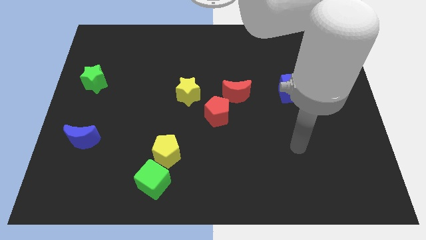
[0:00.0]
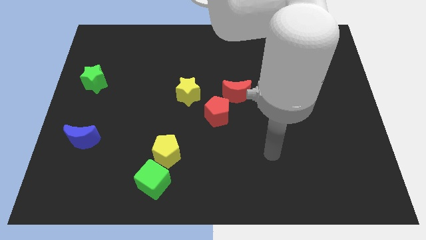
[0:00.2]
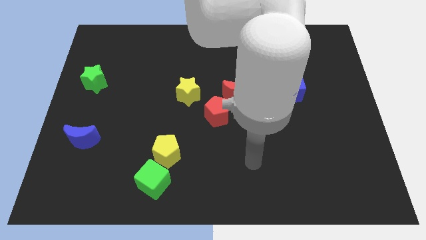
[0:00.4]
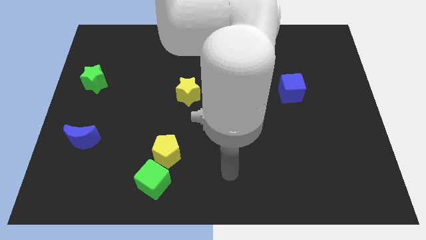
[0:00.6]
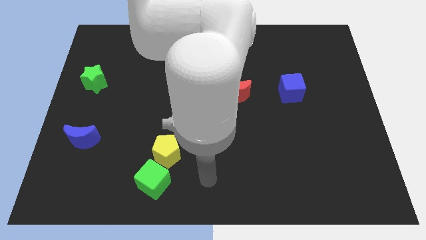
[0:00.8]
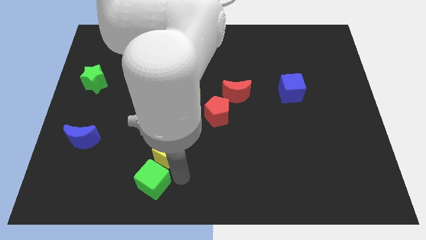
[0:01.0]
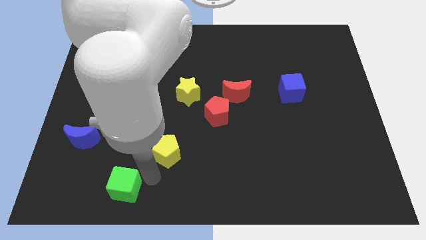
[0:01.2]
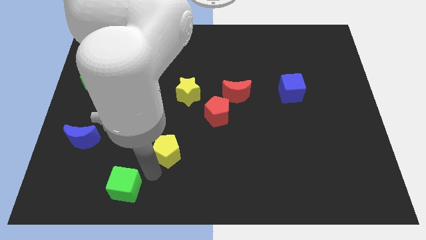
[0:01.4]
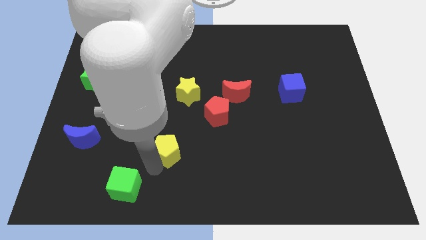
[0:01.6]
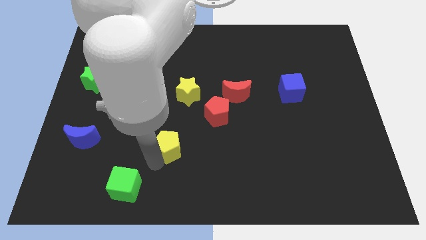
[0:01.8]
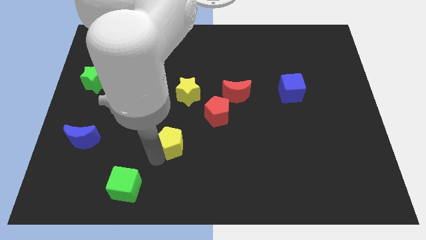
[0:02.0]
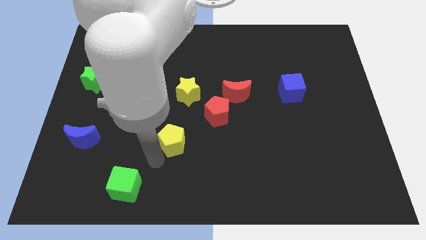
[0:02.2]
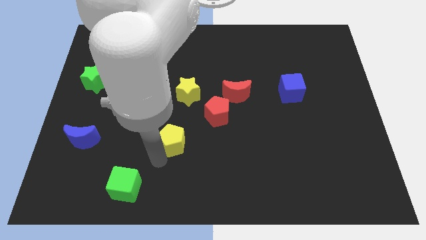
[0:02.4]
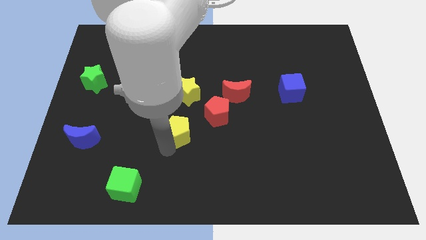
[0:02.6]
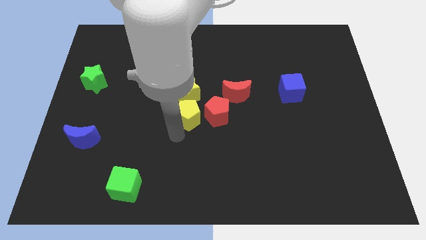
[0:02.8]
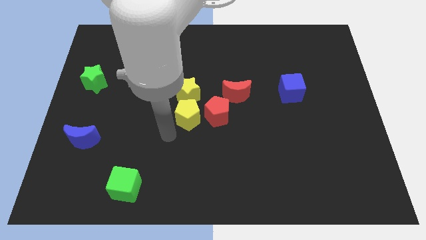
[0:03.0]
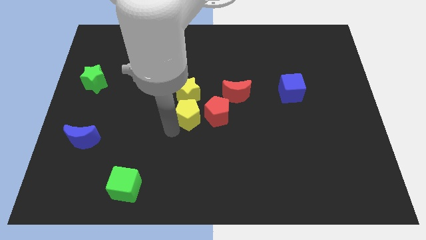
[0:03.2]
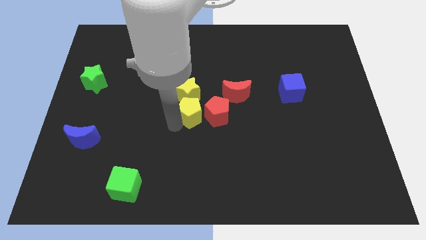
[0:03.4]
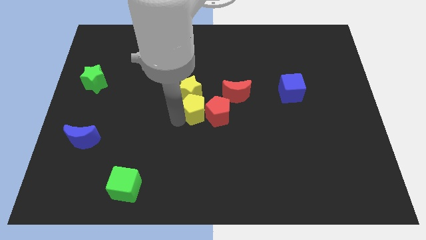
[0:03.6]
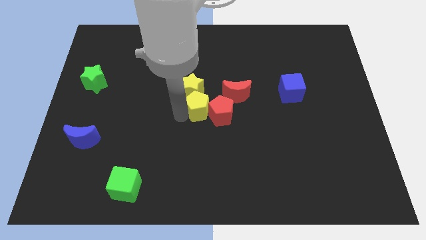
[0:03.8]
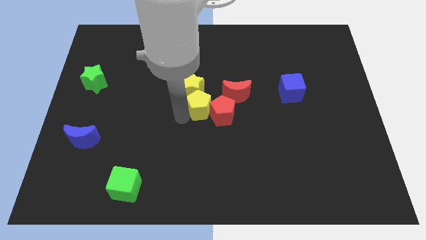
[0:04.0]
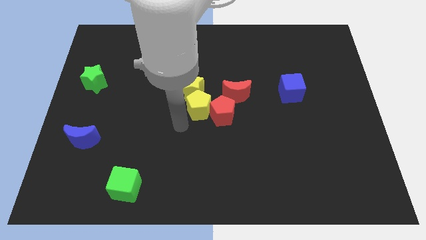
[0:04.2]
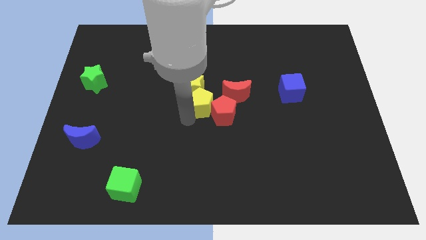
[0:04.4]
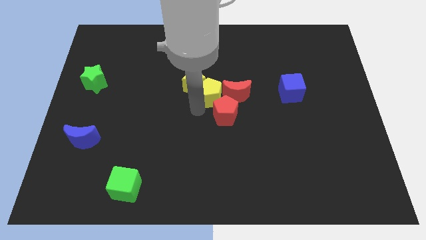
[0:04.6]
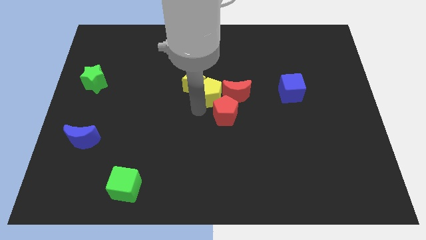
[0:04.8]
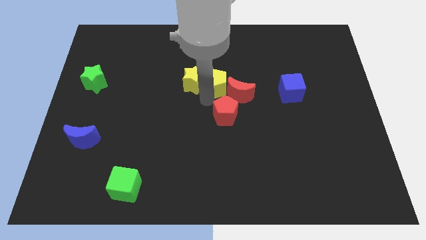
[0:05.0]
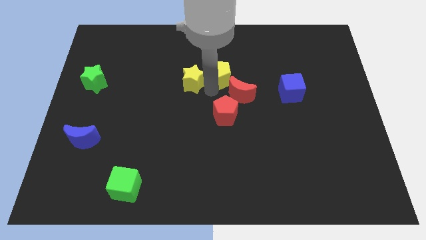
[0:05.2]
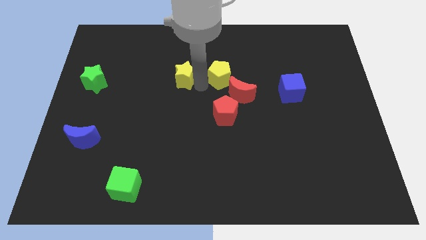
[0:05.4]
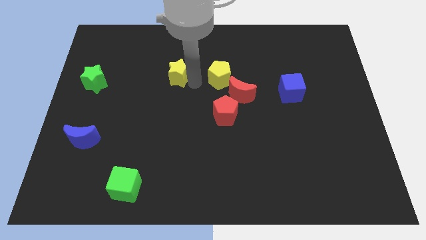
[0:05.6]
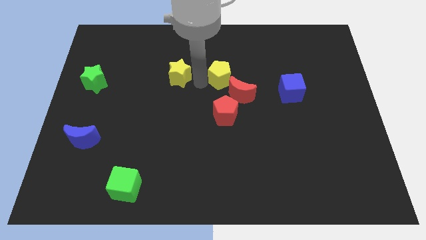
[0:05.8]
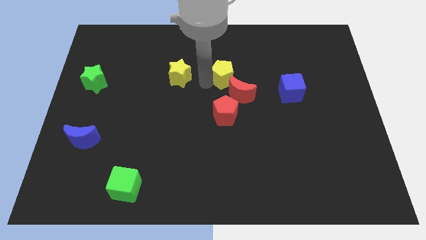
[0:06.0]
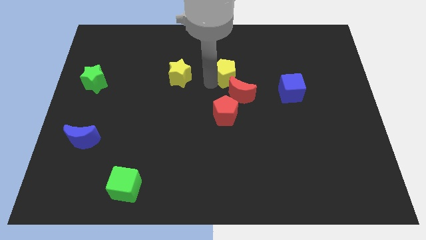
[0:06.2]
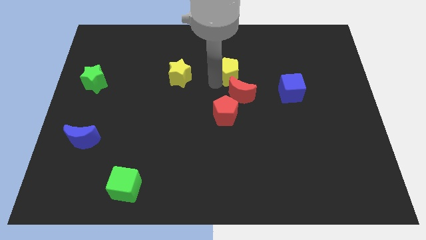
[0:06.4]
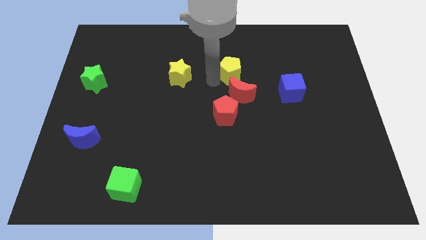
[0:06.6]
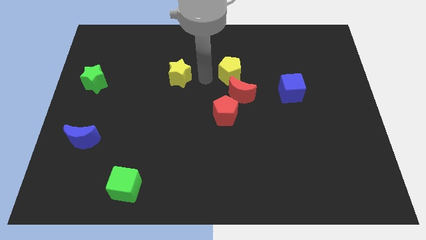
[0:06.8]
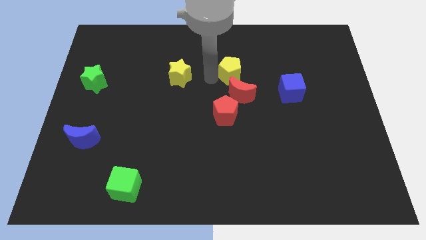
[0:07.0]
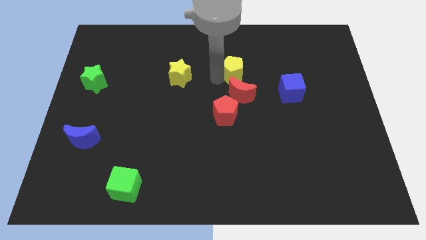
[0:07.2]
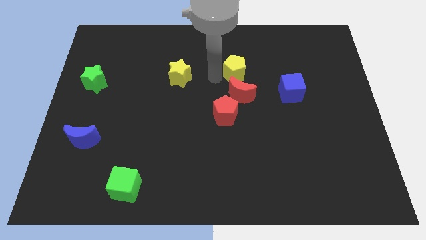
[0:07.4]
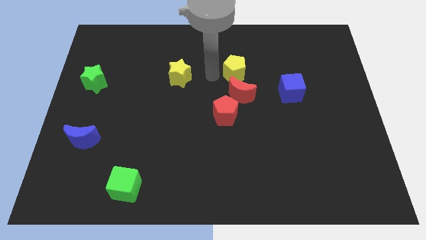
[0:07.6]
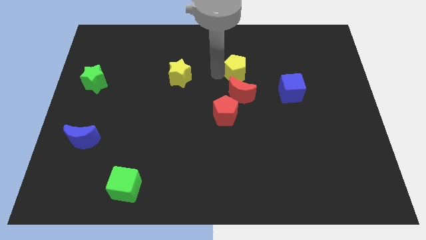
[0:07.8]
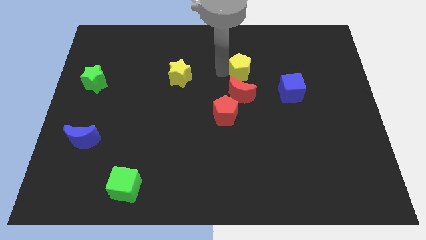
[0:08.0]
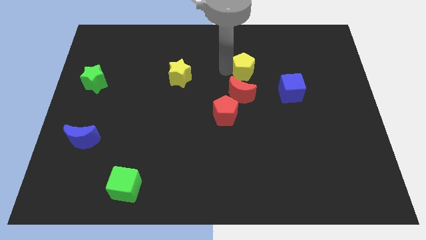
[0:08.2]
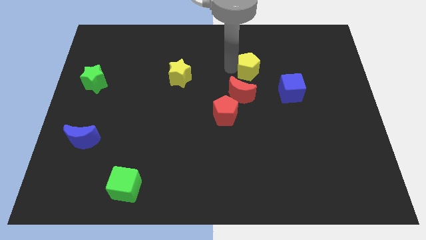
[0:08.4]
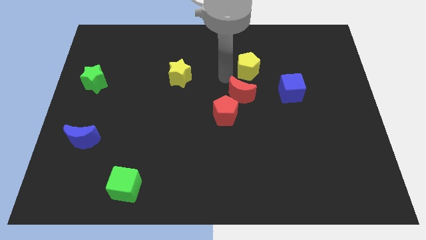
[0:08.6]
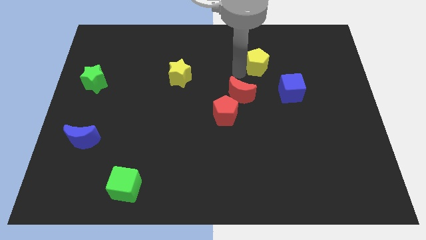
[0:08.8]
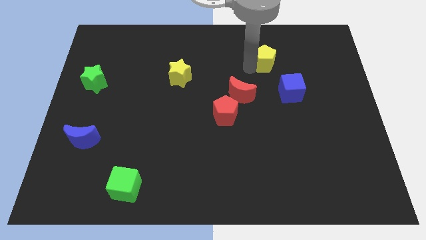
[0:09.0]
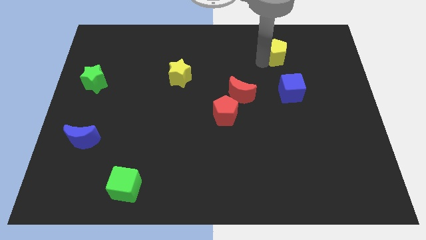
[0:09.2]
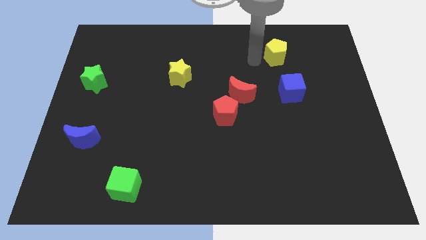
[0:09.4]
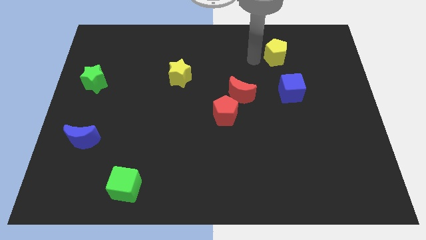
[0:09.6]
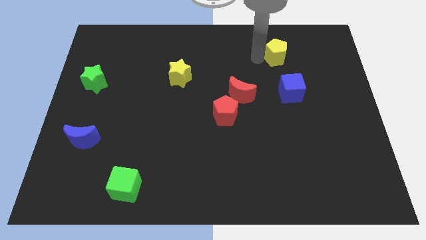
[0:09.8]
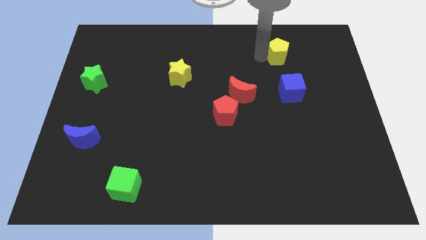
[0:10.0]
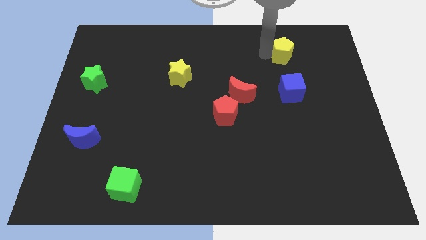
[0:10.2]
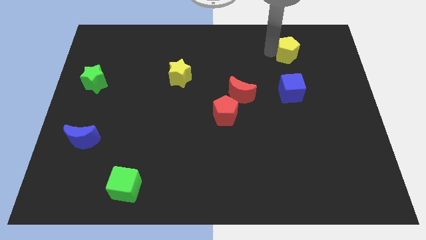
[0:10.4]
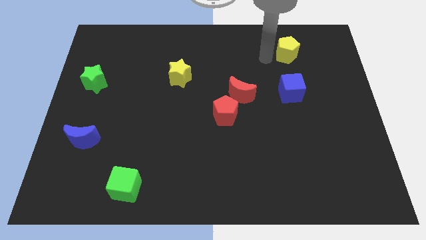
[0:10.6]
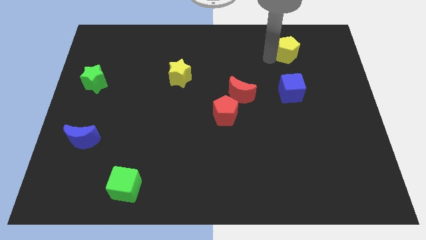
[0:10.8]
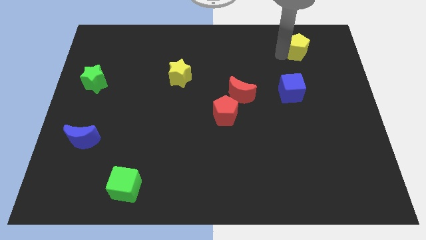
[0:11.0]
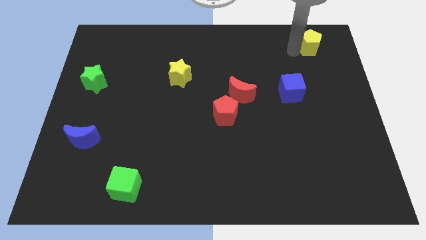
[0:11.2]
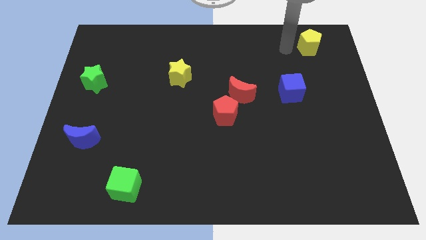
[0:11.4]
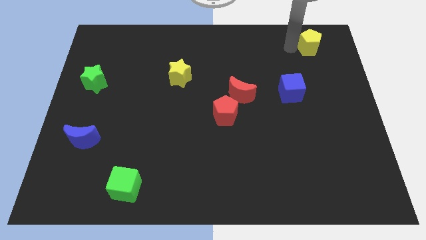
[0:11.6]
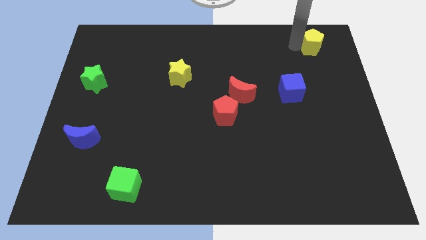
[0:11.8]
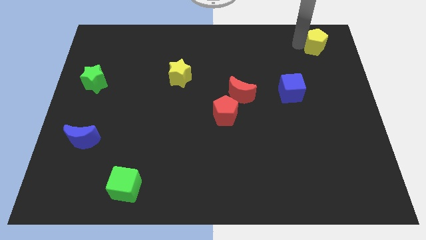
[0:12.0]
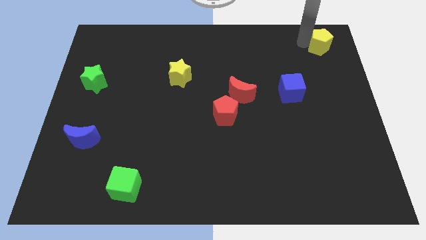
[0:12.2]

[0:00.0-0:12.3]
push the yellow pentagon to the top right
